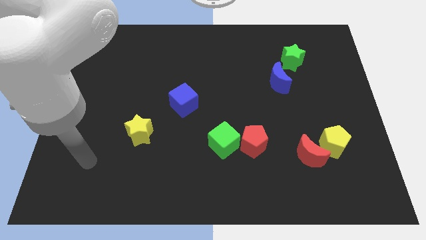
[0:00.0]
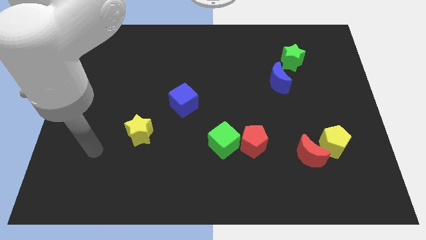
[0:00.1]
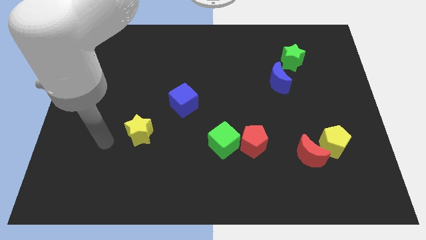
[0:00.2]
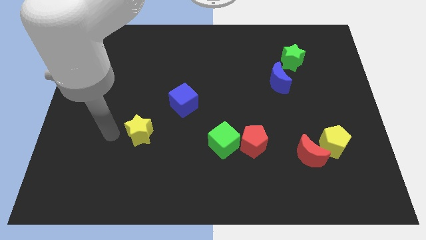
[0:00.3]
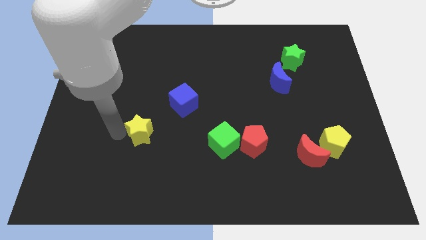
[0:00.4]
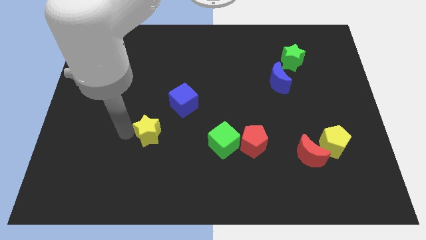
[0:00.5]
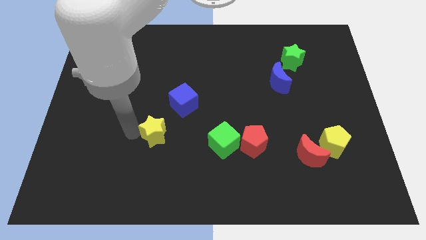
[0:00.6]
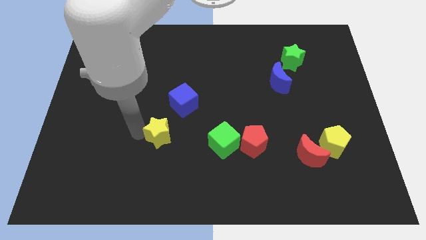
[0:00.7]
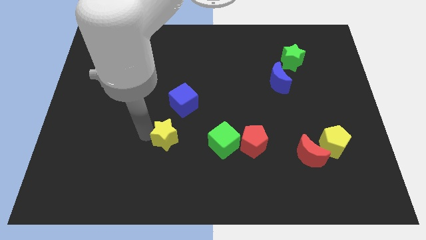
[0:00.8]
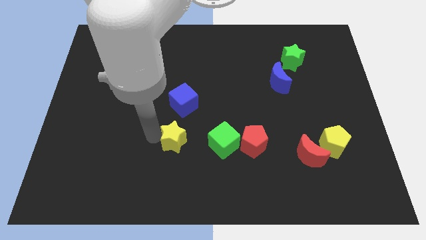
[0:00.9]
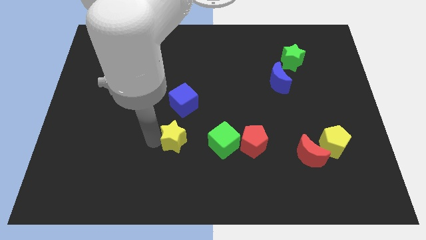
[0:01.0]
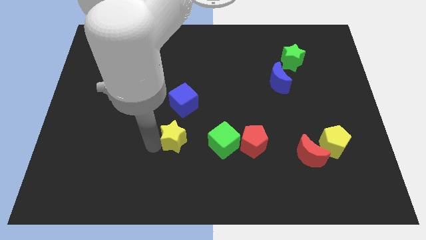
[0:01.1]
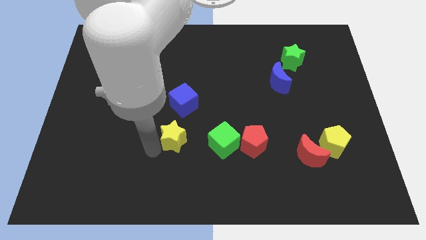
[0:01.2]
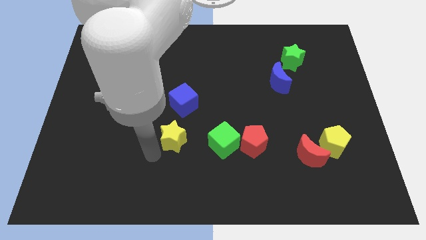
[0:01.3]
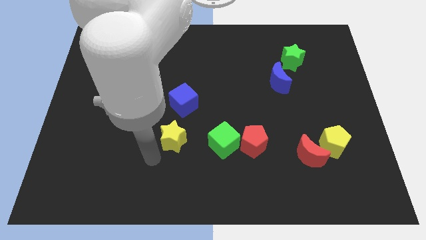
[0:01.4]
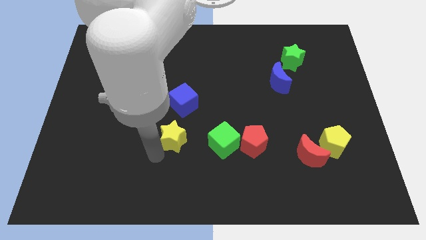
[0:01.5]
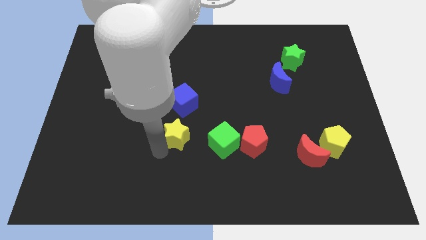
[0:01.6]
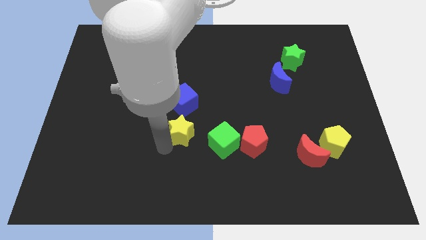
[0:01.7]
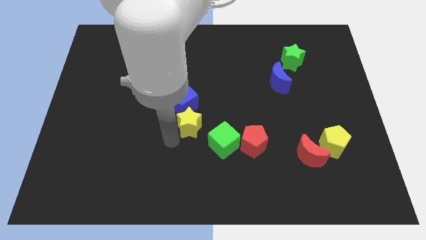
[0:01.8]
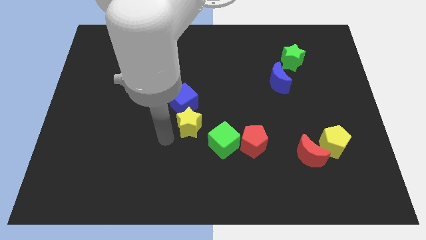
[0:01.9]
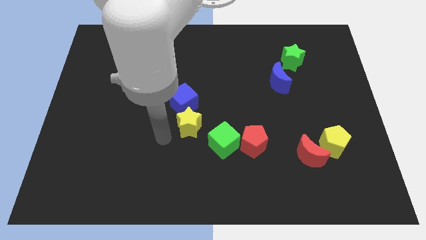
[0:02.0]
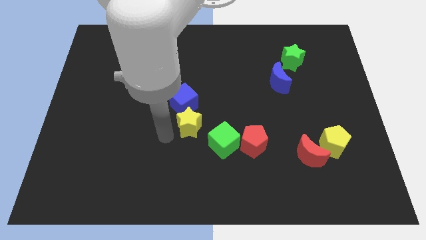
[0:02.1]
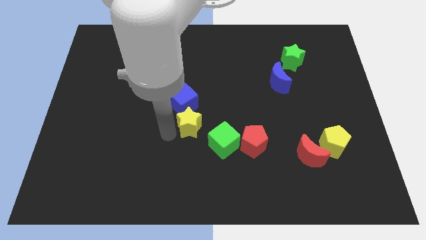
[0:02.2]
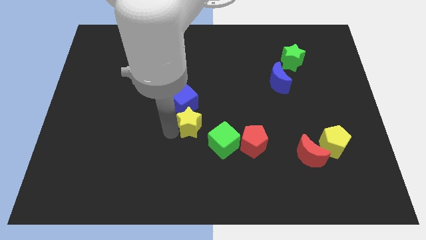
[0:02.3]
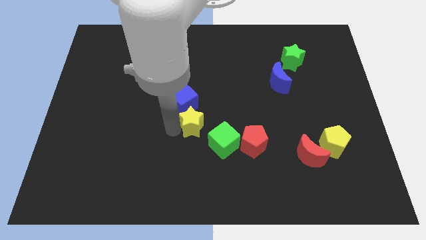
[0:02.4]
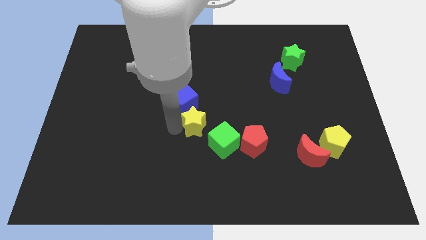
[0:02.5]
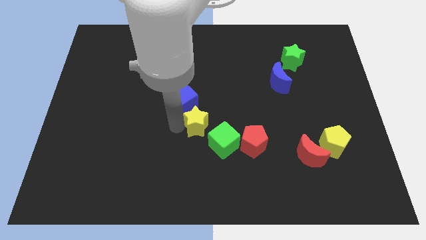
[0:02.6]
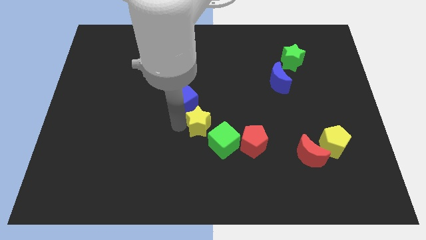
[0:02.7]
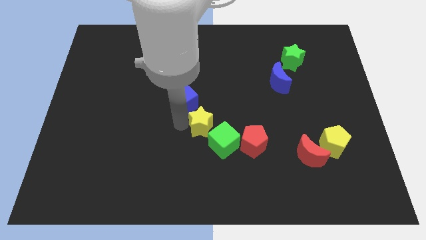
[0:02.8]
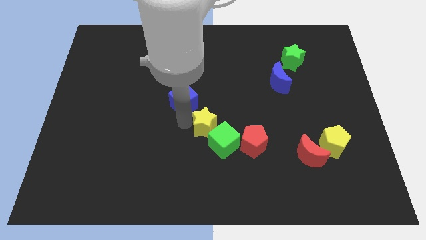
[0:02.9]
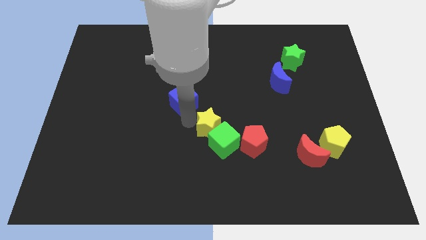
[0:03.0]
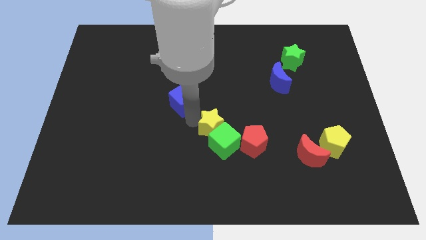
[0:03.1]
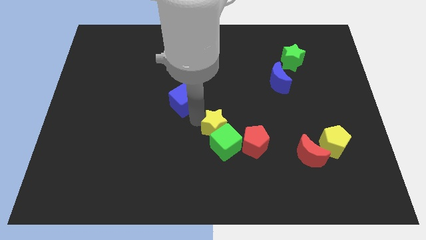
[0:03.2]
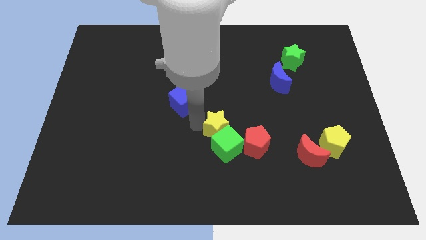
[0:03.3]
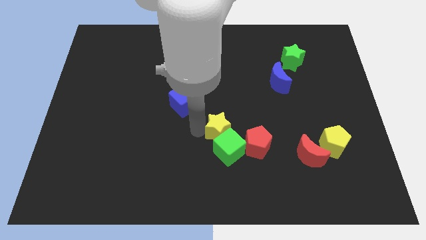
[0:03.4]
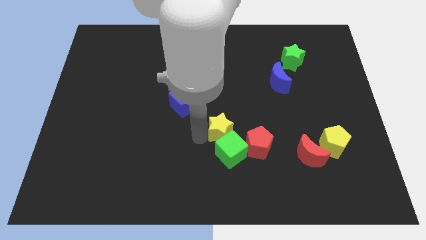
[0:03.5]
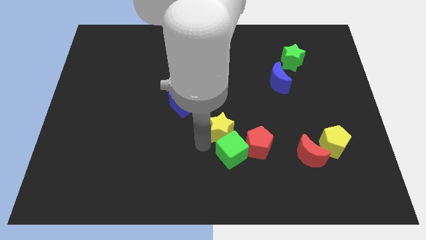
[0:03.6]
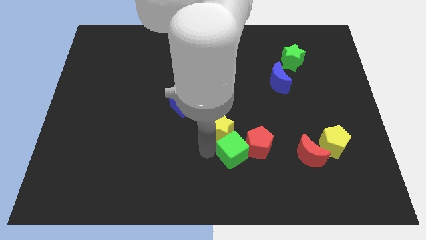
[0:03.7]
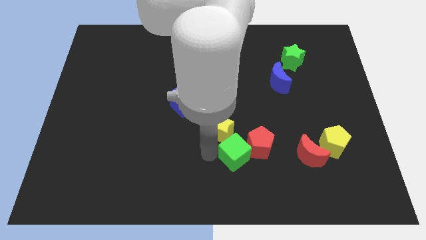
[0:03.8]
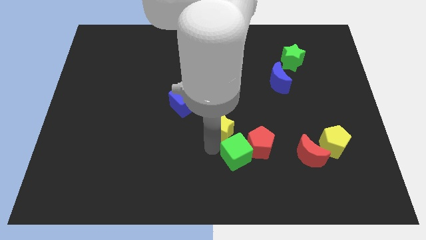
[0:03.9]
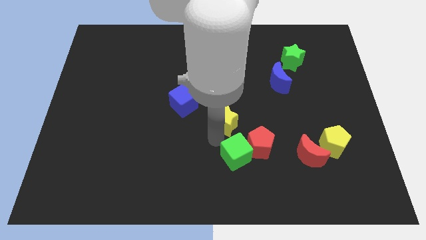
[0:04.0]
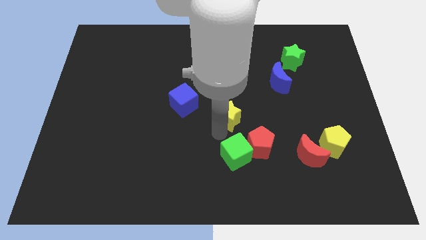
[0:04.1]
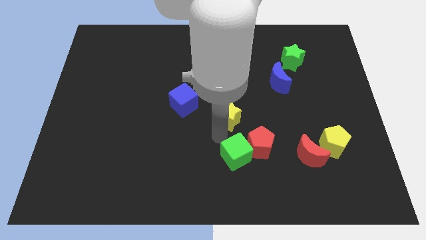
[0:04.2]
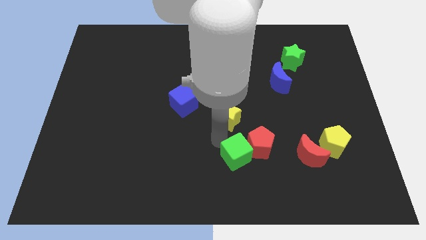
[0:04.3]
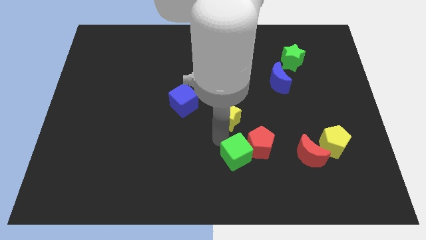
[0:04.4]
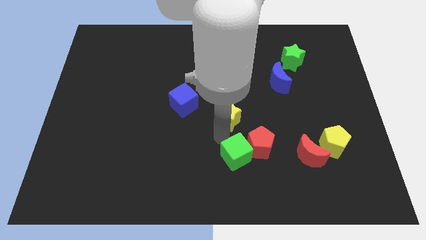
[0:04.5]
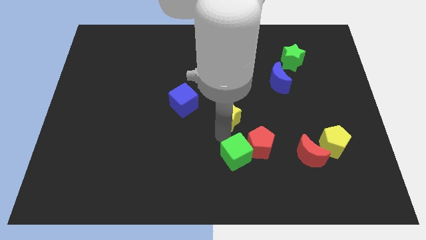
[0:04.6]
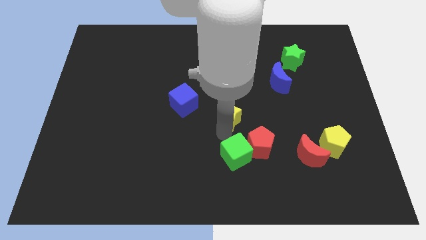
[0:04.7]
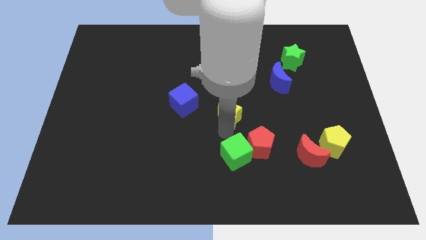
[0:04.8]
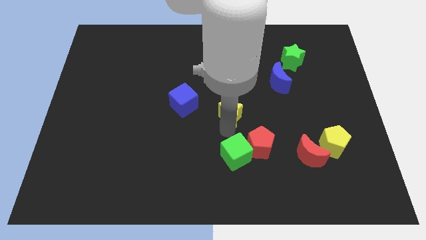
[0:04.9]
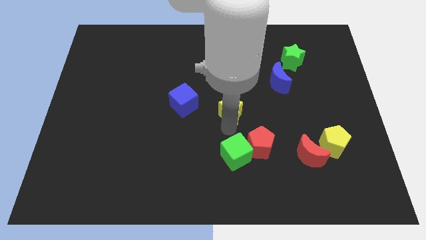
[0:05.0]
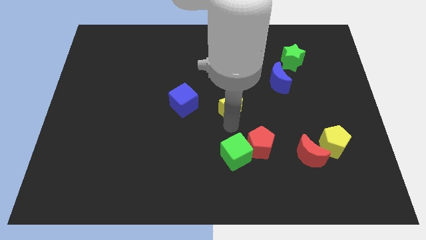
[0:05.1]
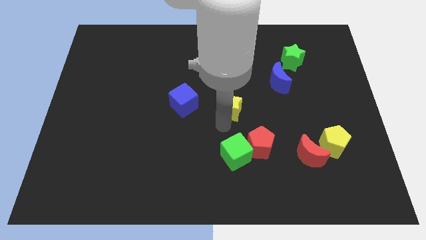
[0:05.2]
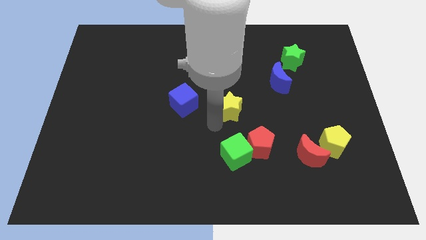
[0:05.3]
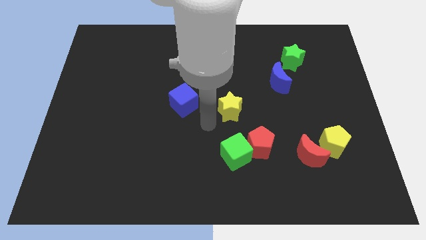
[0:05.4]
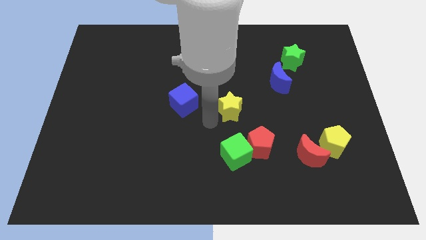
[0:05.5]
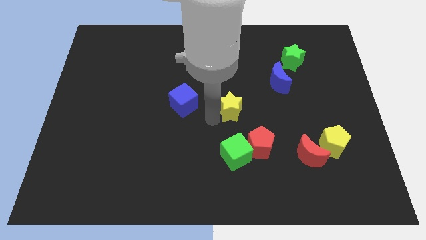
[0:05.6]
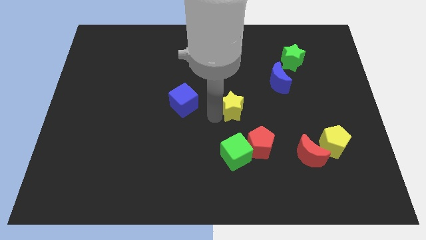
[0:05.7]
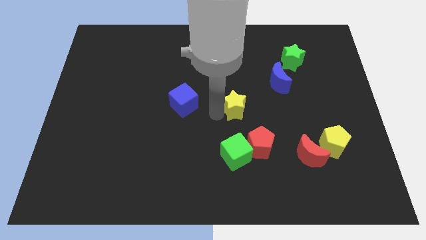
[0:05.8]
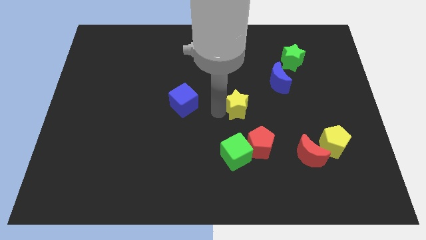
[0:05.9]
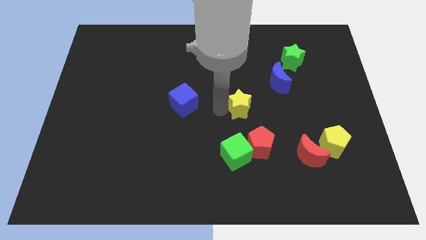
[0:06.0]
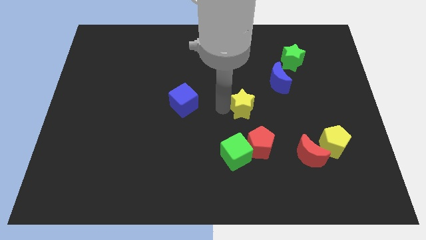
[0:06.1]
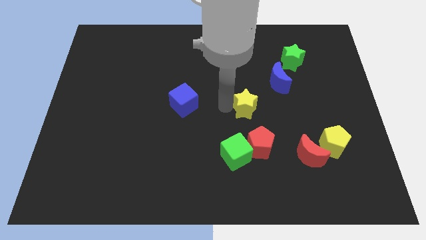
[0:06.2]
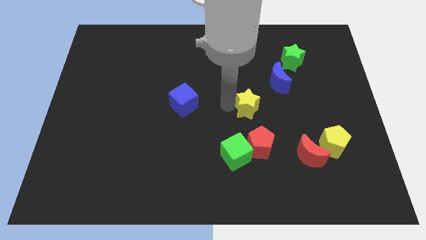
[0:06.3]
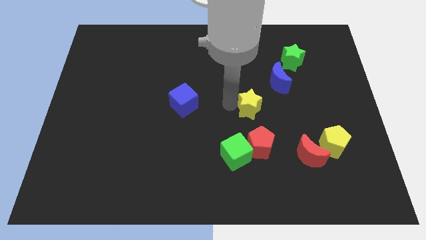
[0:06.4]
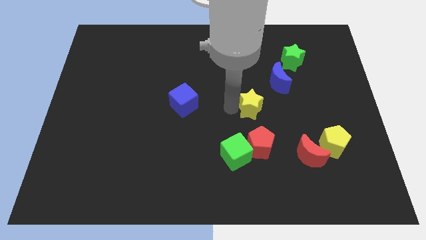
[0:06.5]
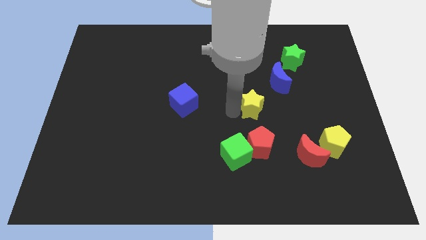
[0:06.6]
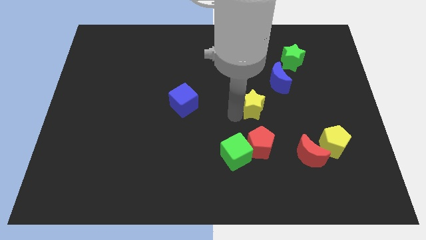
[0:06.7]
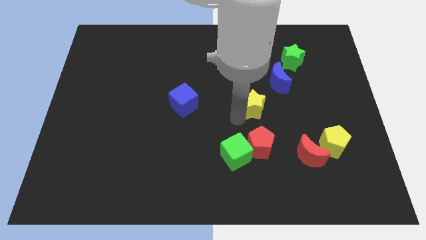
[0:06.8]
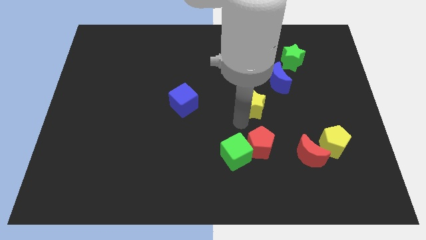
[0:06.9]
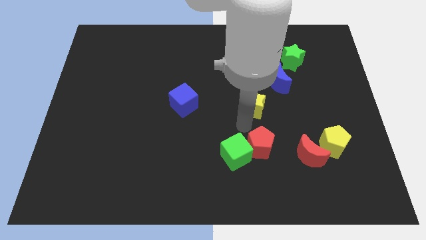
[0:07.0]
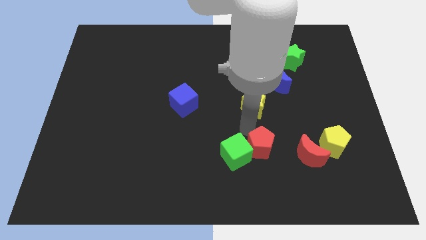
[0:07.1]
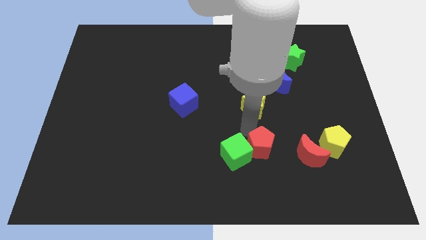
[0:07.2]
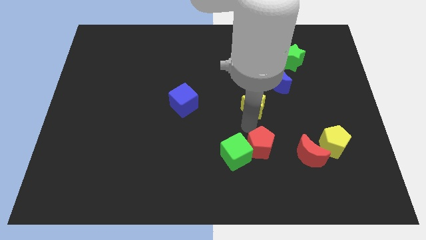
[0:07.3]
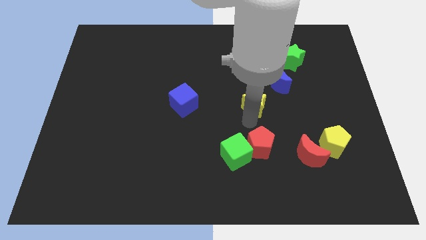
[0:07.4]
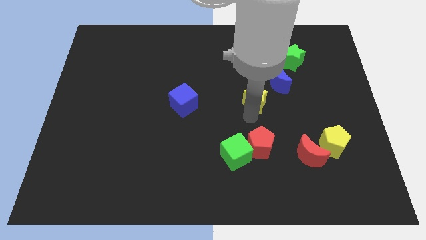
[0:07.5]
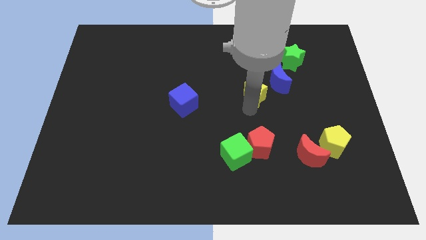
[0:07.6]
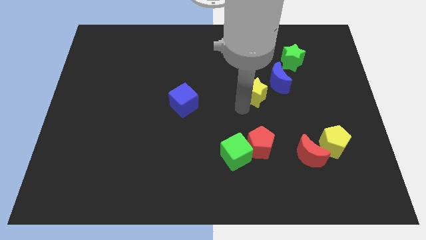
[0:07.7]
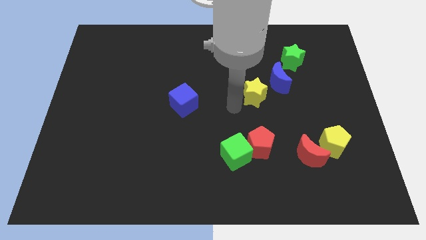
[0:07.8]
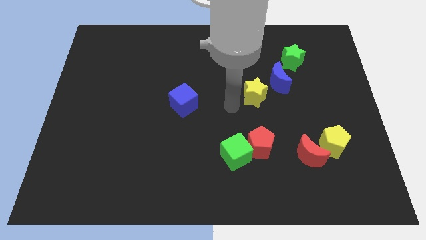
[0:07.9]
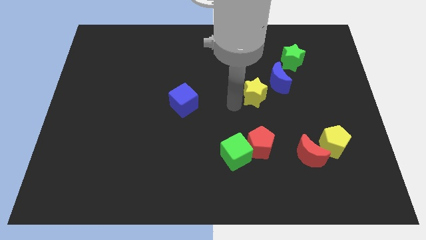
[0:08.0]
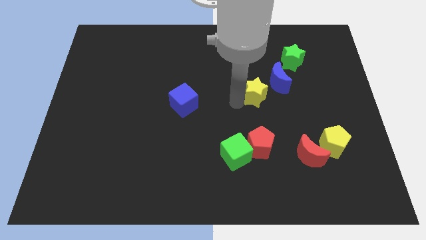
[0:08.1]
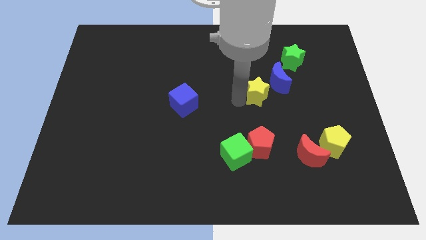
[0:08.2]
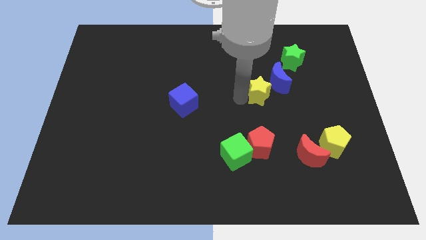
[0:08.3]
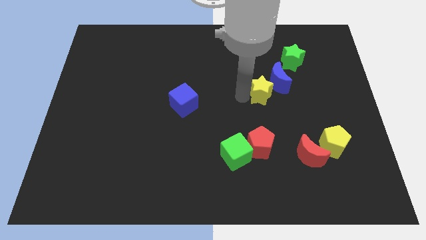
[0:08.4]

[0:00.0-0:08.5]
slide the yellow star next to the blue moon
